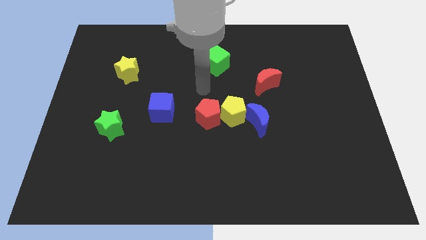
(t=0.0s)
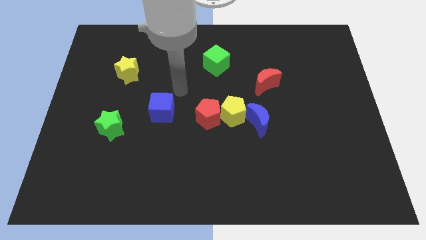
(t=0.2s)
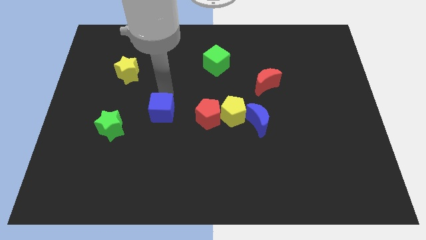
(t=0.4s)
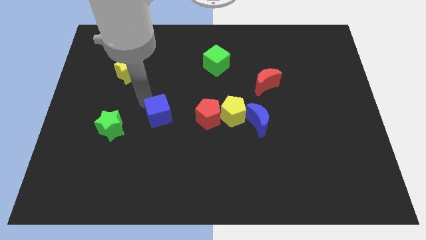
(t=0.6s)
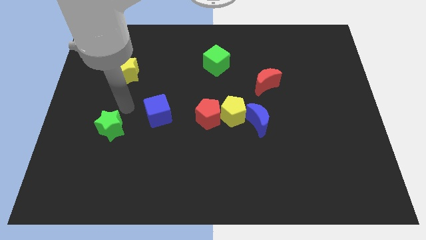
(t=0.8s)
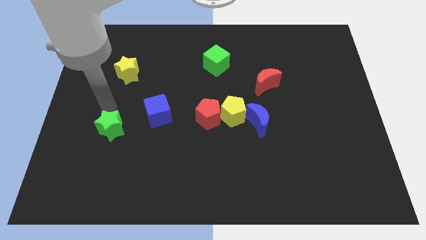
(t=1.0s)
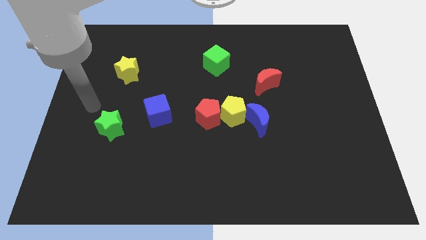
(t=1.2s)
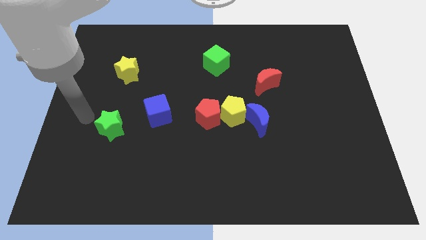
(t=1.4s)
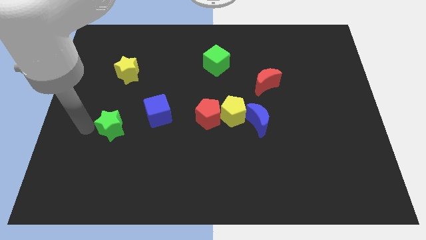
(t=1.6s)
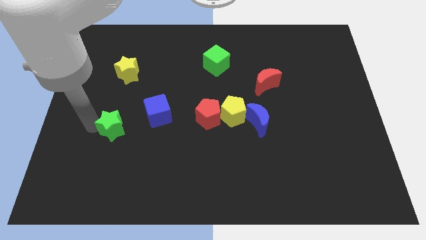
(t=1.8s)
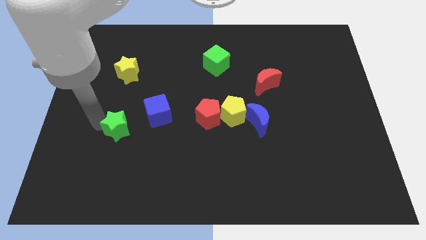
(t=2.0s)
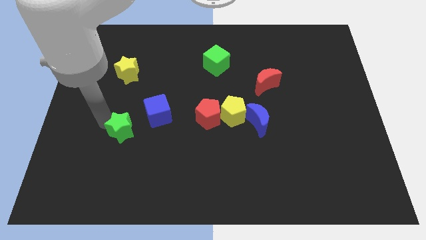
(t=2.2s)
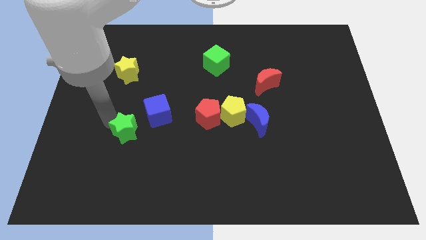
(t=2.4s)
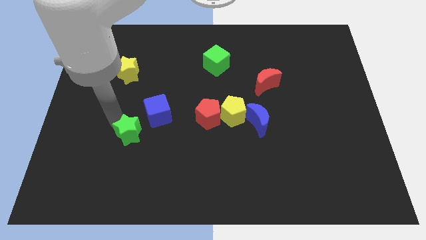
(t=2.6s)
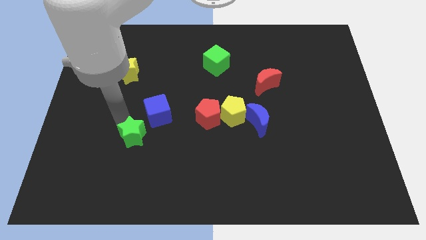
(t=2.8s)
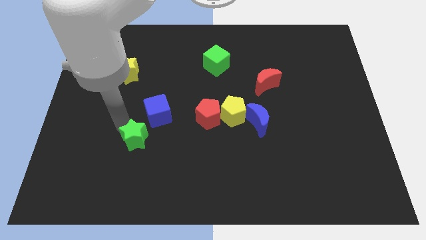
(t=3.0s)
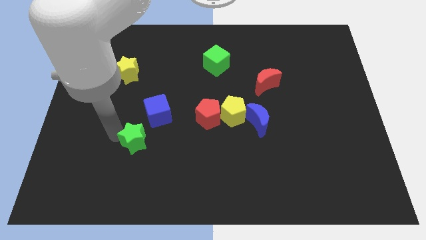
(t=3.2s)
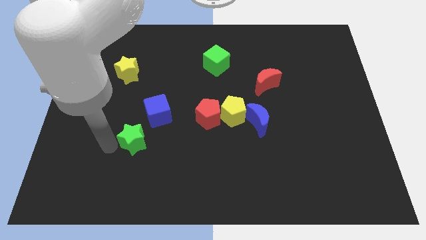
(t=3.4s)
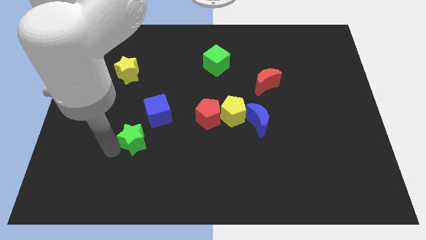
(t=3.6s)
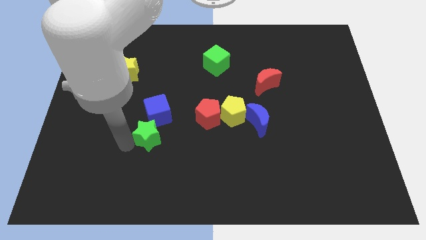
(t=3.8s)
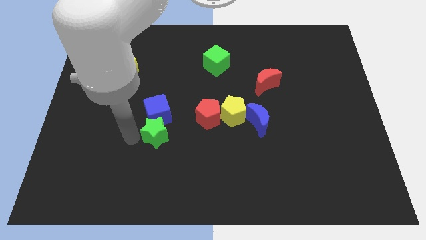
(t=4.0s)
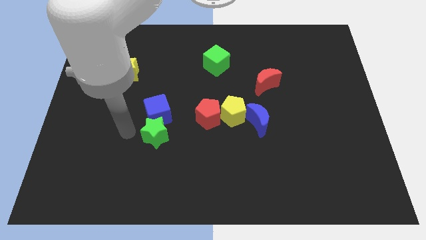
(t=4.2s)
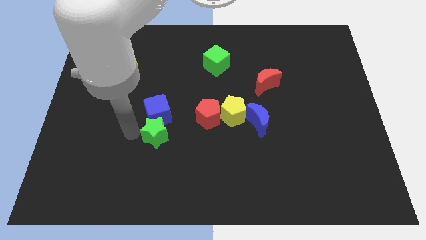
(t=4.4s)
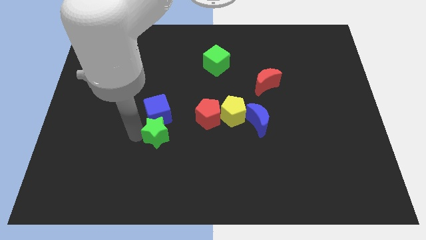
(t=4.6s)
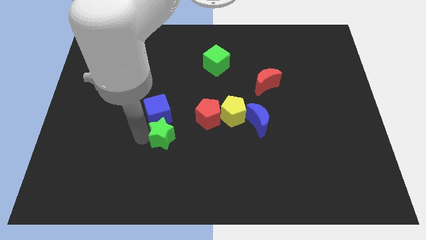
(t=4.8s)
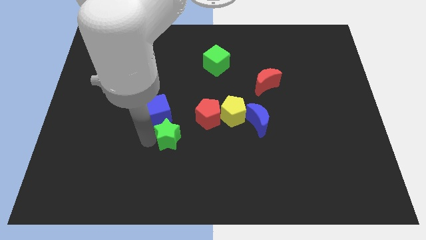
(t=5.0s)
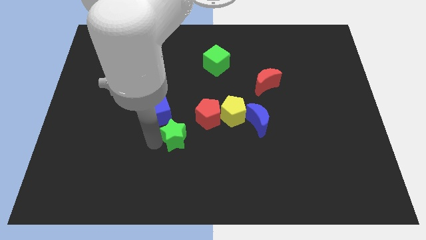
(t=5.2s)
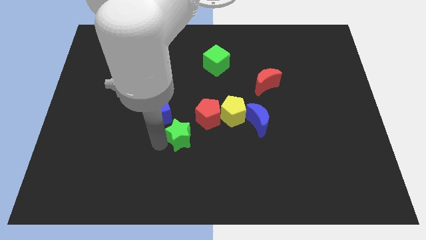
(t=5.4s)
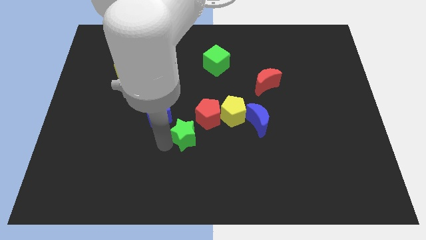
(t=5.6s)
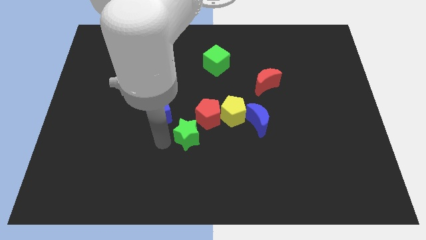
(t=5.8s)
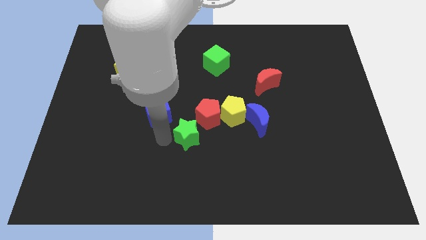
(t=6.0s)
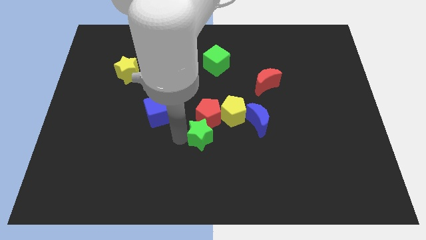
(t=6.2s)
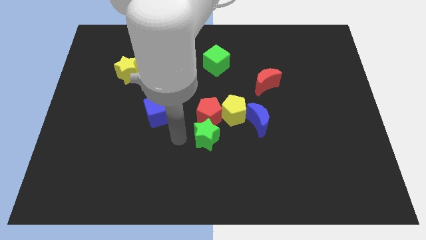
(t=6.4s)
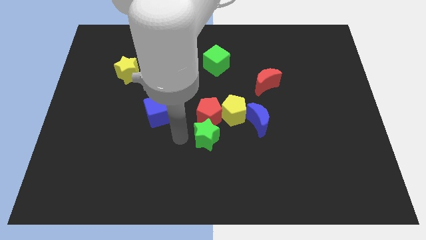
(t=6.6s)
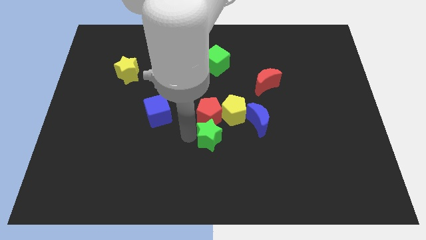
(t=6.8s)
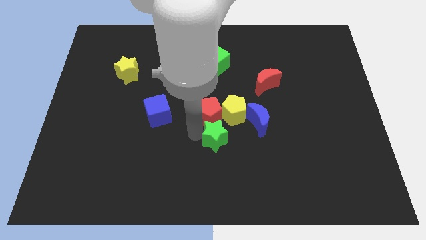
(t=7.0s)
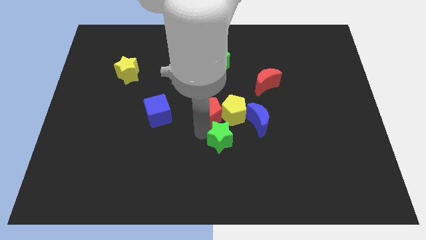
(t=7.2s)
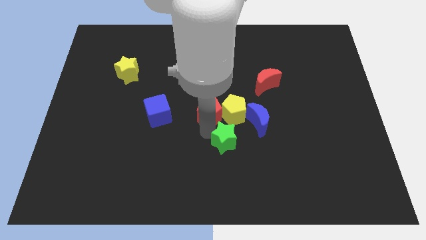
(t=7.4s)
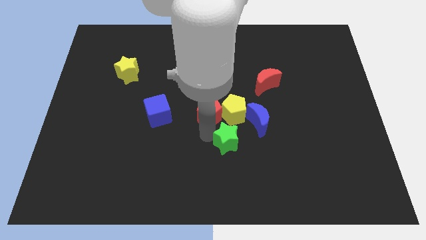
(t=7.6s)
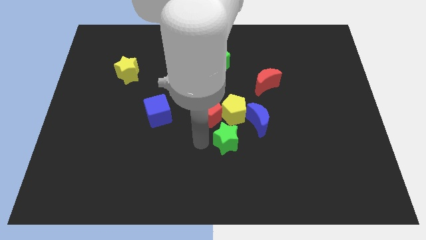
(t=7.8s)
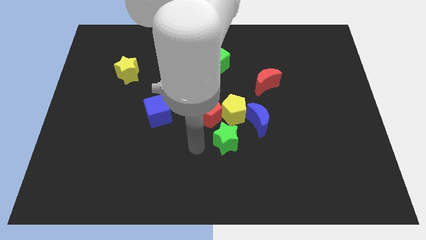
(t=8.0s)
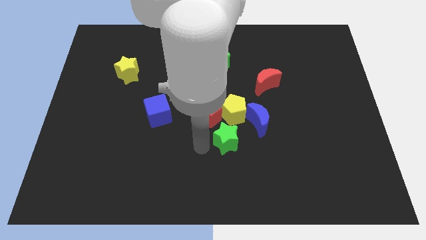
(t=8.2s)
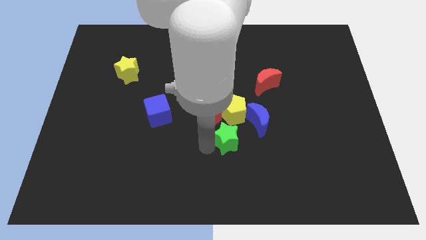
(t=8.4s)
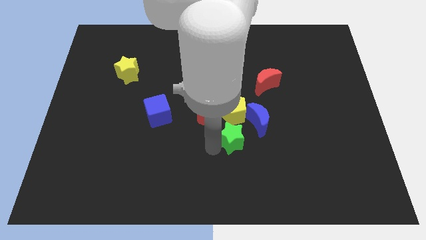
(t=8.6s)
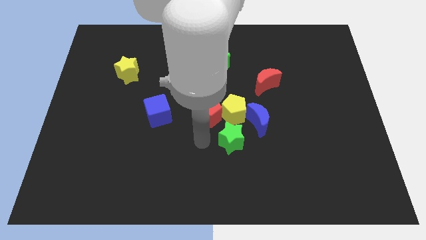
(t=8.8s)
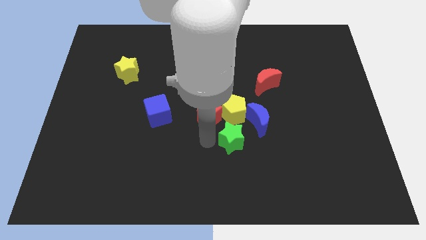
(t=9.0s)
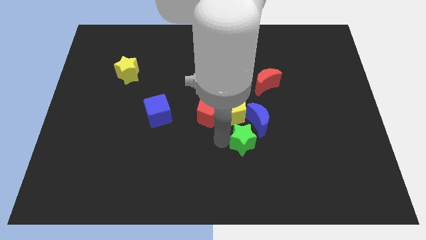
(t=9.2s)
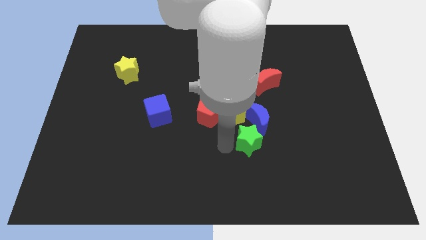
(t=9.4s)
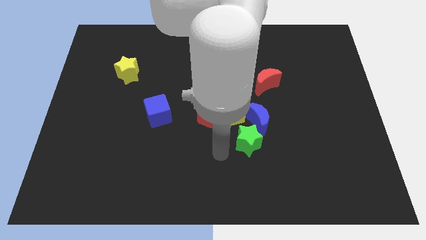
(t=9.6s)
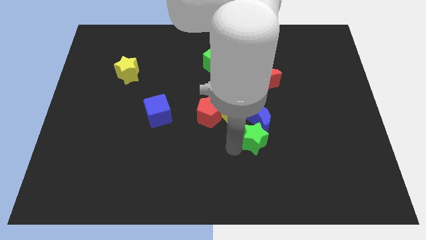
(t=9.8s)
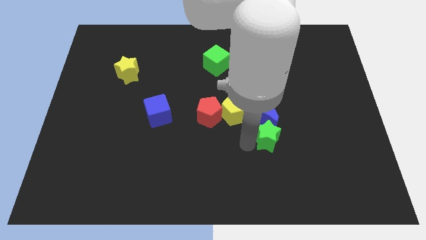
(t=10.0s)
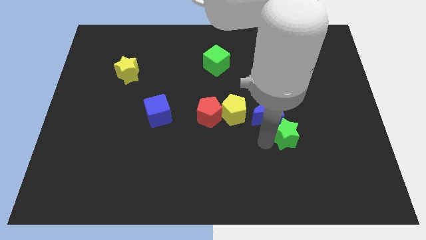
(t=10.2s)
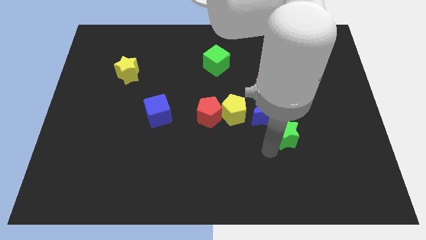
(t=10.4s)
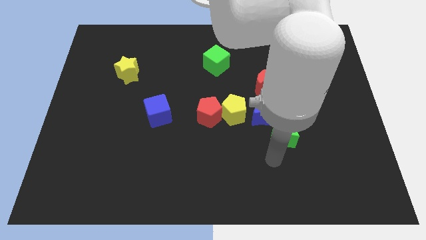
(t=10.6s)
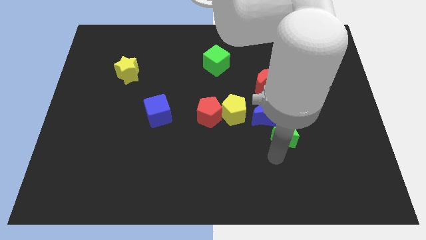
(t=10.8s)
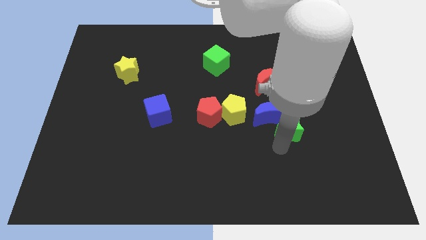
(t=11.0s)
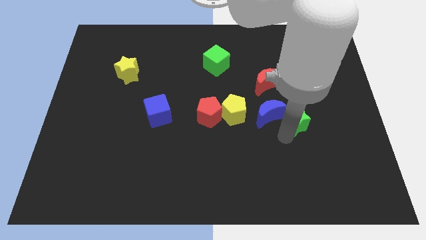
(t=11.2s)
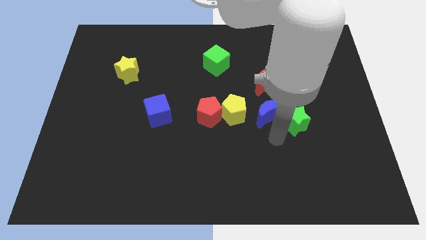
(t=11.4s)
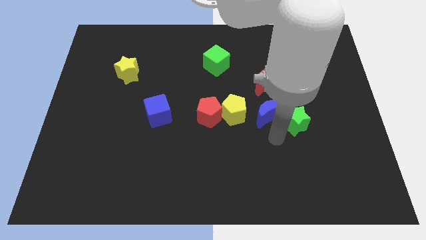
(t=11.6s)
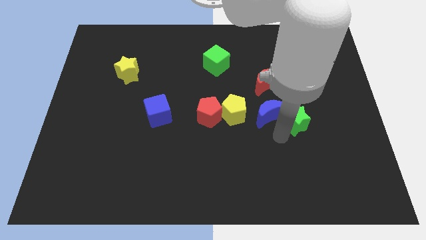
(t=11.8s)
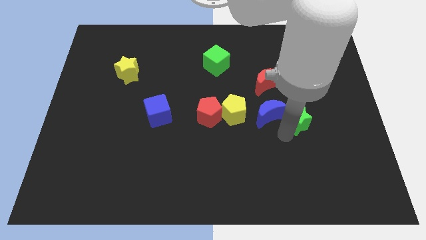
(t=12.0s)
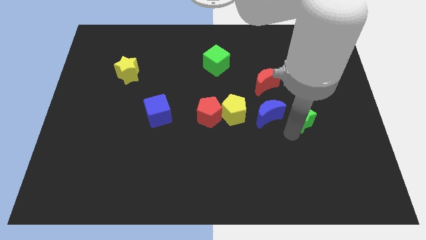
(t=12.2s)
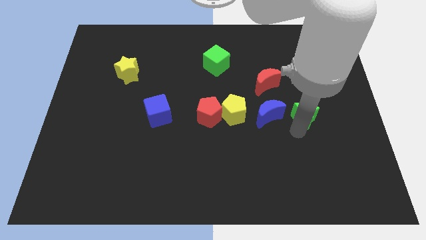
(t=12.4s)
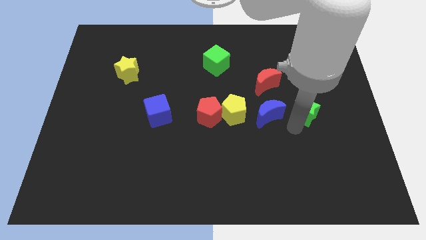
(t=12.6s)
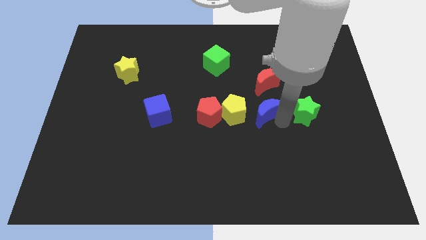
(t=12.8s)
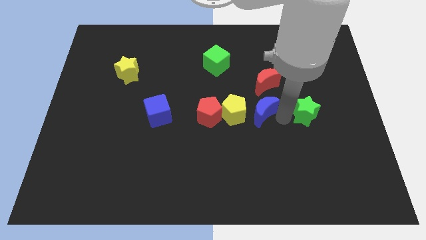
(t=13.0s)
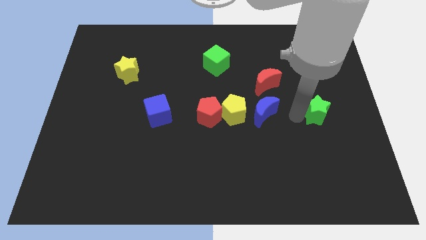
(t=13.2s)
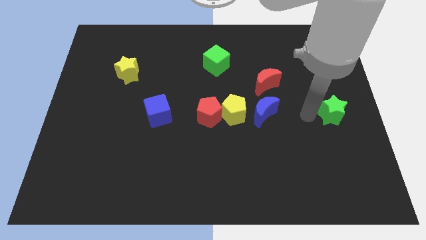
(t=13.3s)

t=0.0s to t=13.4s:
move the green star to the center right

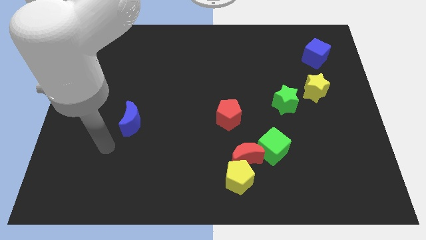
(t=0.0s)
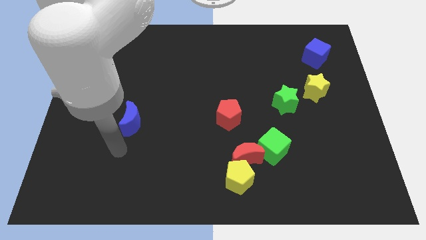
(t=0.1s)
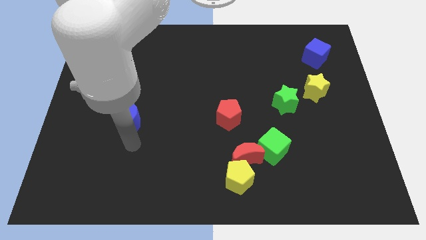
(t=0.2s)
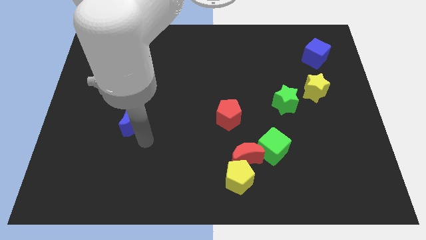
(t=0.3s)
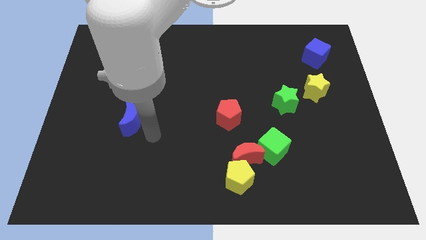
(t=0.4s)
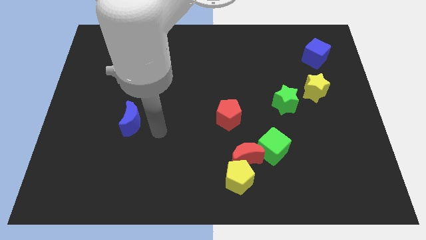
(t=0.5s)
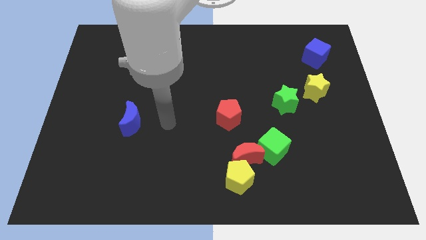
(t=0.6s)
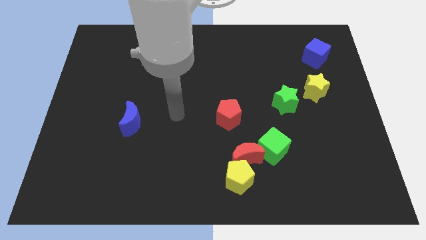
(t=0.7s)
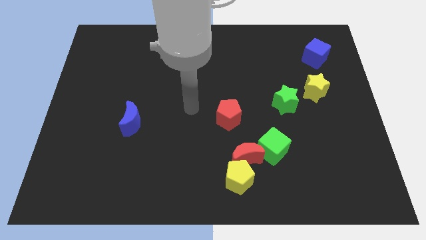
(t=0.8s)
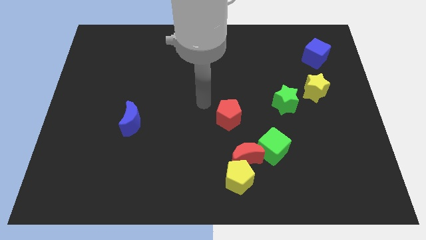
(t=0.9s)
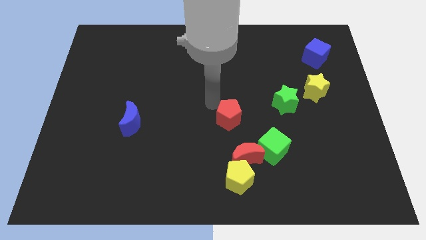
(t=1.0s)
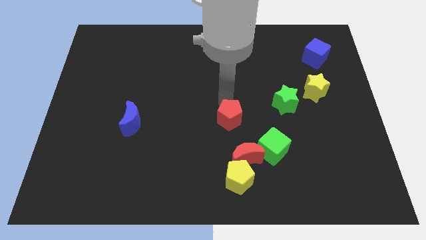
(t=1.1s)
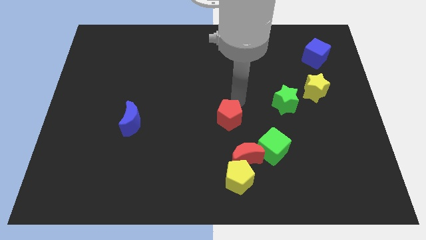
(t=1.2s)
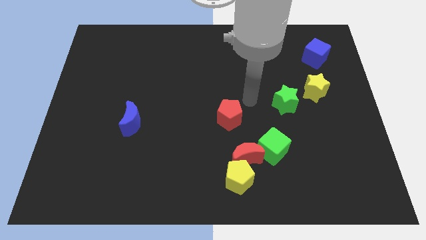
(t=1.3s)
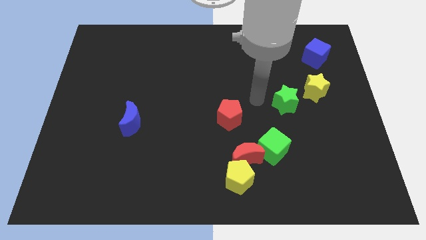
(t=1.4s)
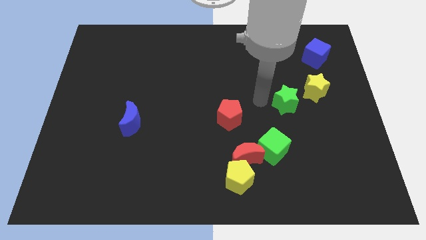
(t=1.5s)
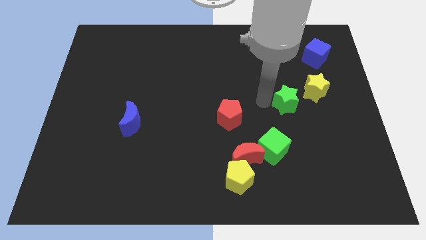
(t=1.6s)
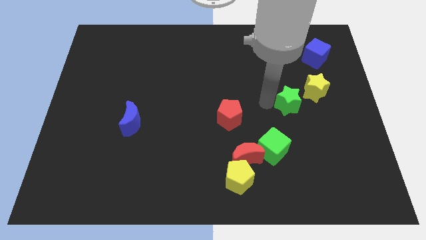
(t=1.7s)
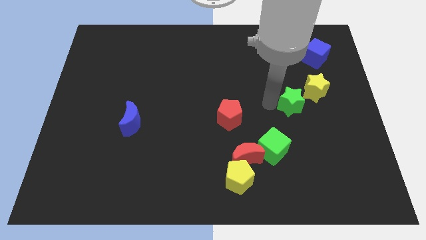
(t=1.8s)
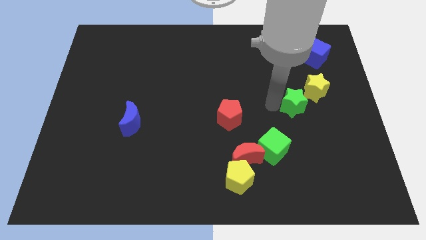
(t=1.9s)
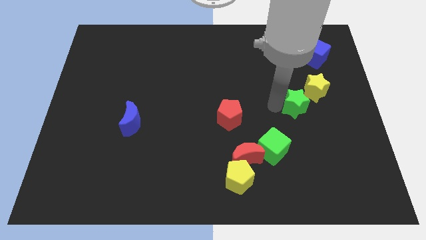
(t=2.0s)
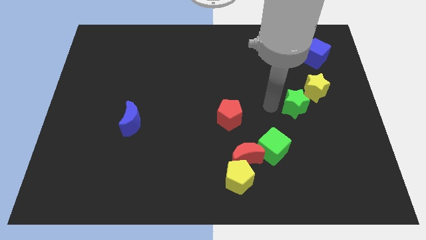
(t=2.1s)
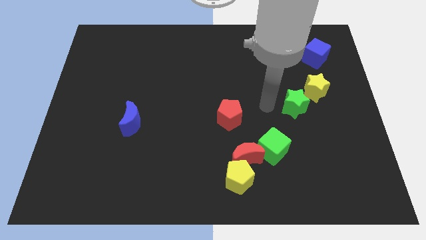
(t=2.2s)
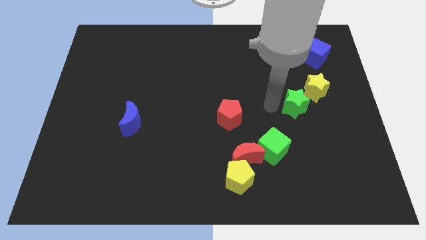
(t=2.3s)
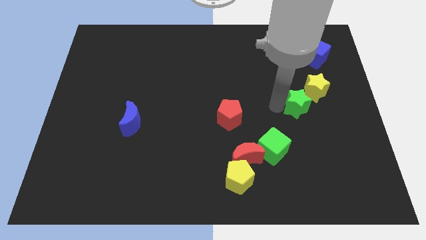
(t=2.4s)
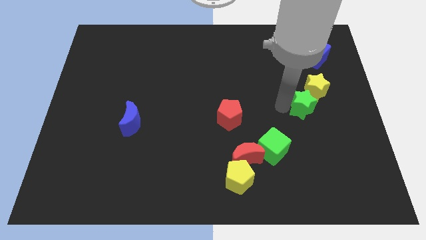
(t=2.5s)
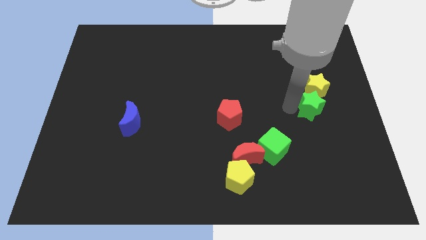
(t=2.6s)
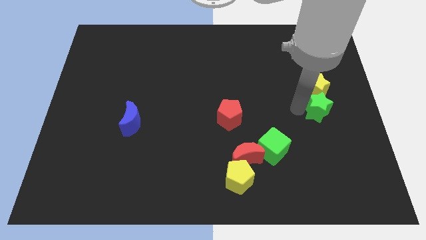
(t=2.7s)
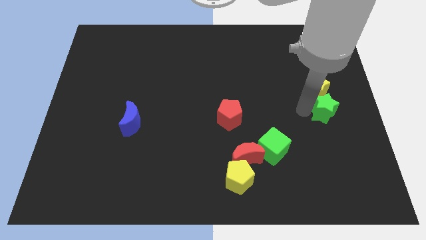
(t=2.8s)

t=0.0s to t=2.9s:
move the green star to the right side of the board
